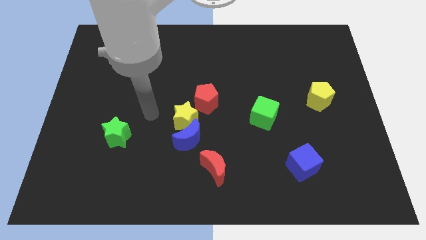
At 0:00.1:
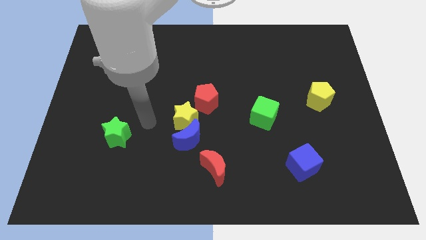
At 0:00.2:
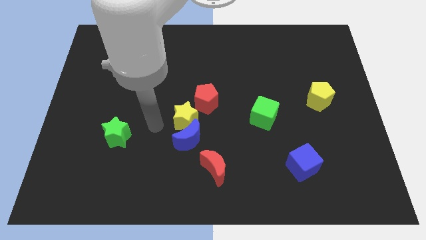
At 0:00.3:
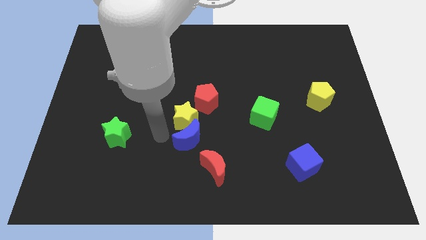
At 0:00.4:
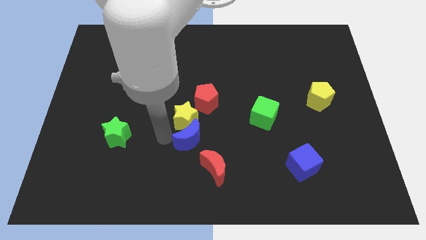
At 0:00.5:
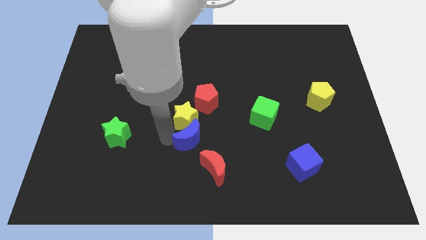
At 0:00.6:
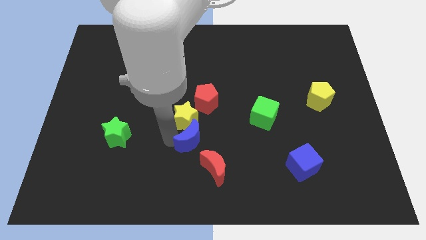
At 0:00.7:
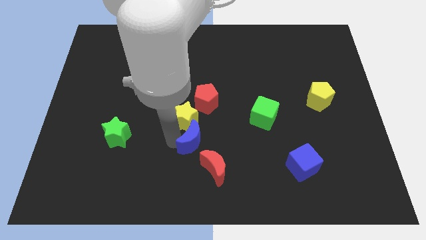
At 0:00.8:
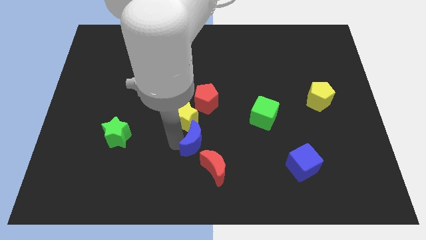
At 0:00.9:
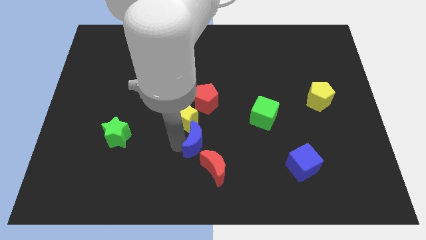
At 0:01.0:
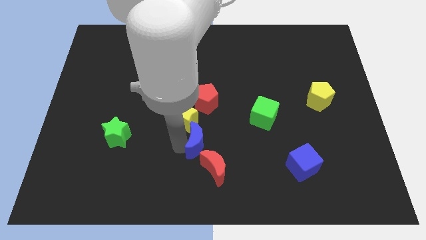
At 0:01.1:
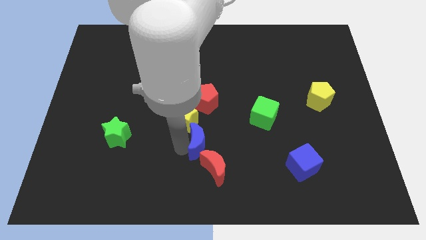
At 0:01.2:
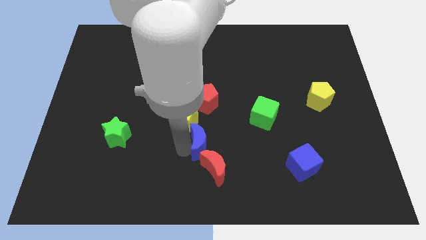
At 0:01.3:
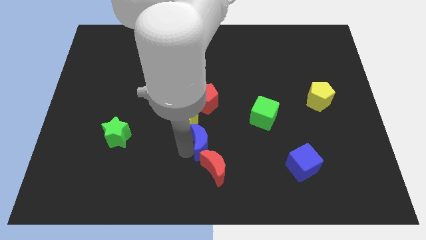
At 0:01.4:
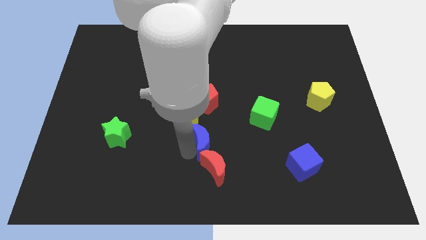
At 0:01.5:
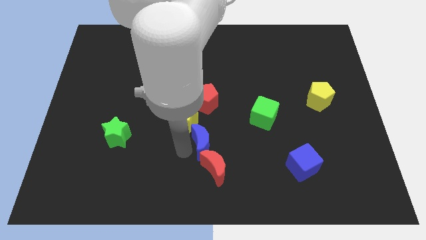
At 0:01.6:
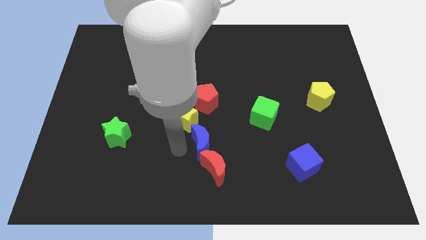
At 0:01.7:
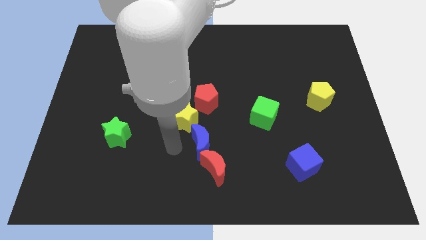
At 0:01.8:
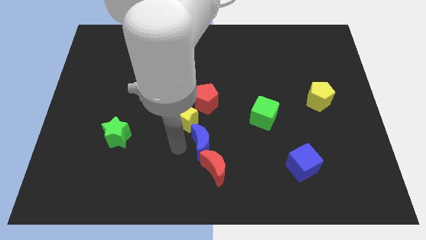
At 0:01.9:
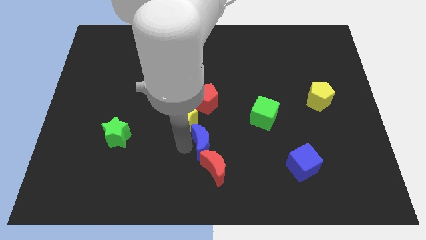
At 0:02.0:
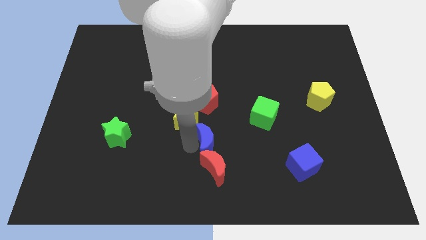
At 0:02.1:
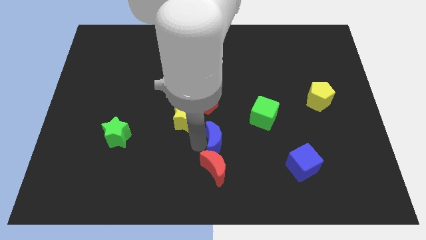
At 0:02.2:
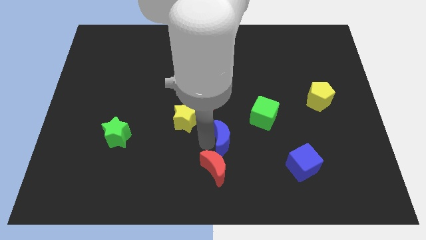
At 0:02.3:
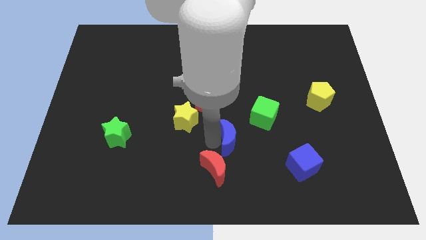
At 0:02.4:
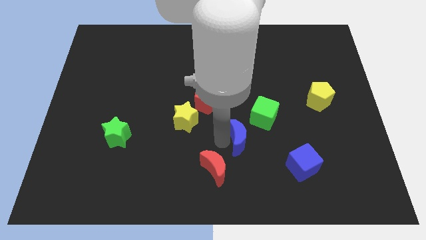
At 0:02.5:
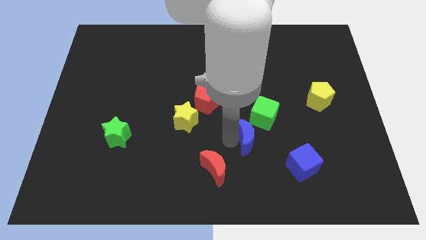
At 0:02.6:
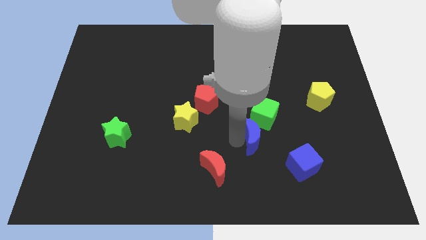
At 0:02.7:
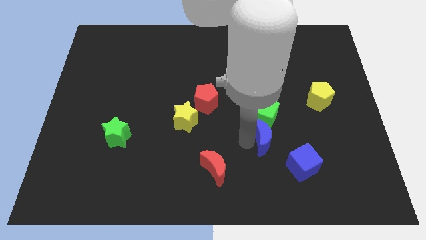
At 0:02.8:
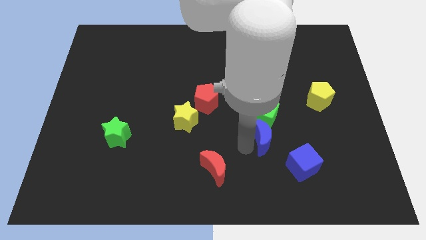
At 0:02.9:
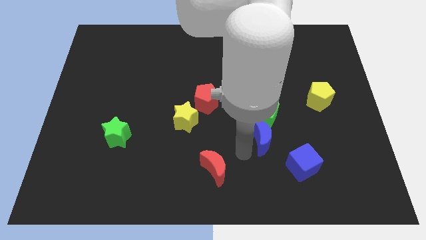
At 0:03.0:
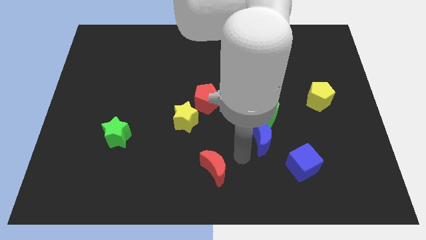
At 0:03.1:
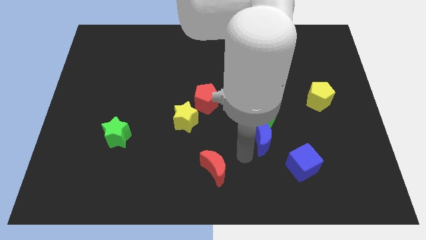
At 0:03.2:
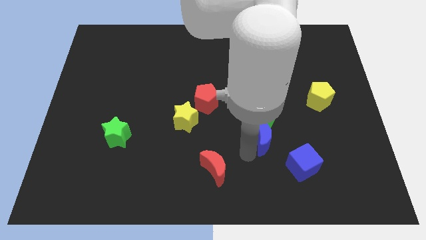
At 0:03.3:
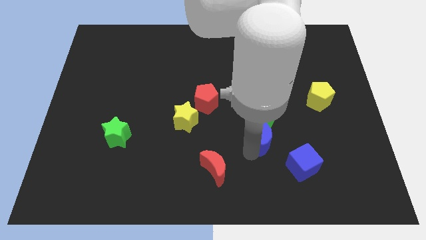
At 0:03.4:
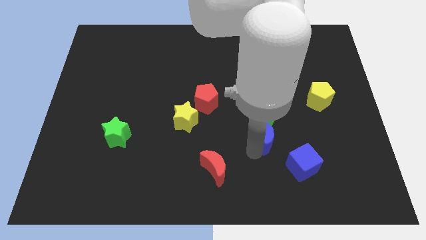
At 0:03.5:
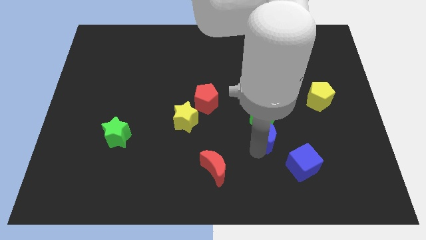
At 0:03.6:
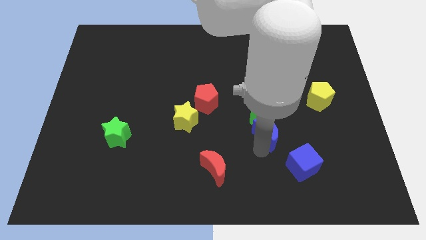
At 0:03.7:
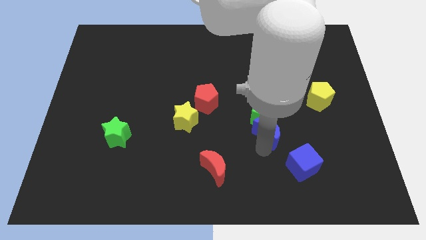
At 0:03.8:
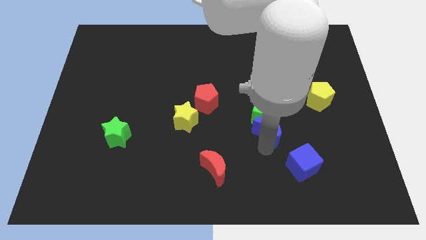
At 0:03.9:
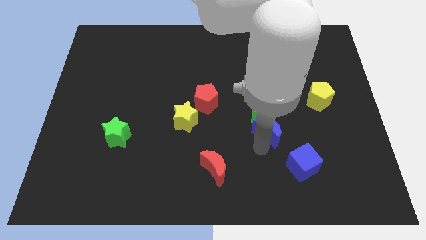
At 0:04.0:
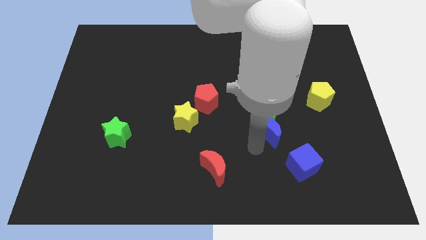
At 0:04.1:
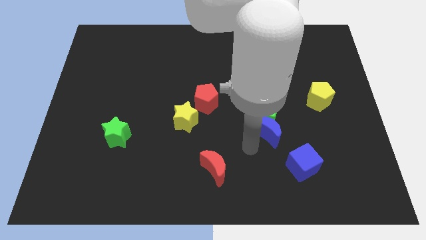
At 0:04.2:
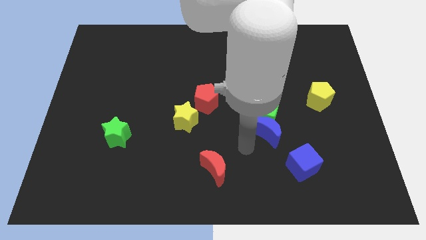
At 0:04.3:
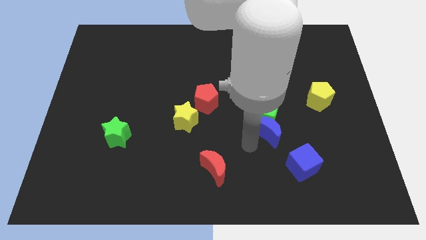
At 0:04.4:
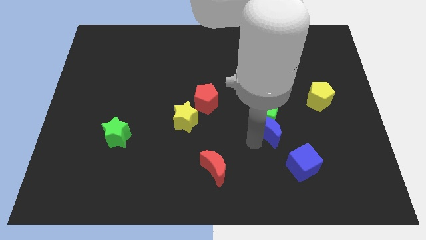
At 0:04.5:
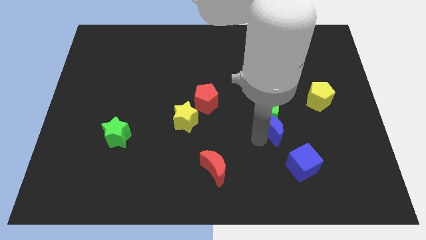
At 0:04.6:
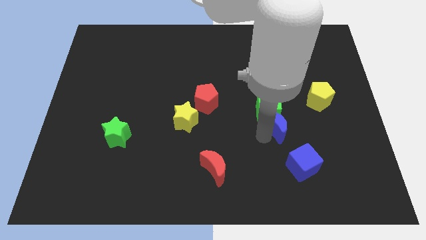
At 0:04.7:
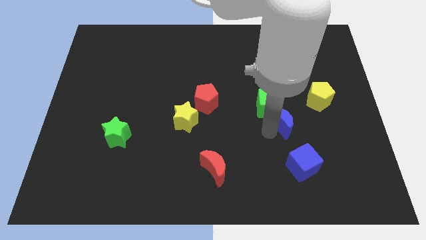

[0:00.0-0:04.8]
move the blue moon to the bottom left of the yellow pentagon

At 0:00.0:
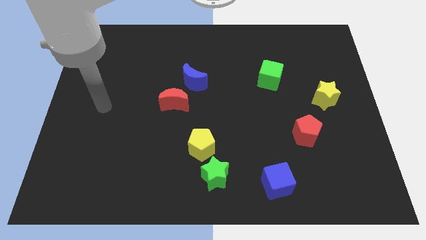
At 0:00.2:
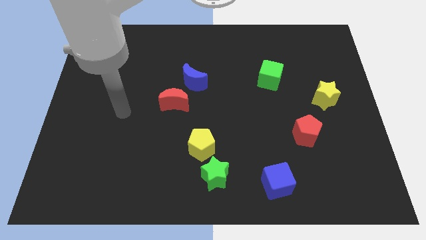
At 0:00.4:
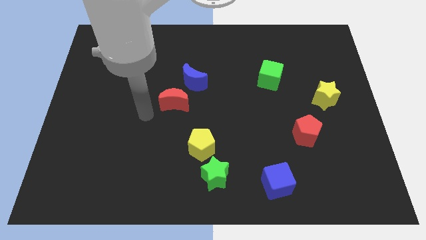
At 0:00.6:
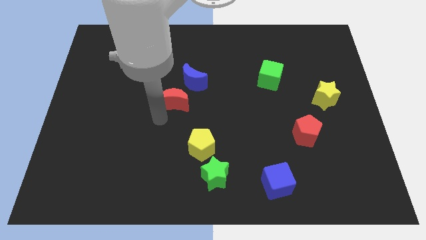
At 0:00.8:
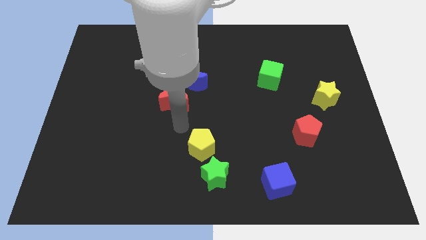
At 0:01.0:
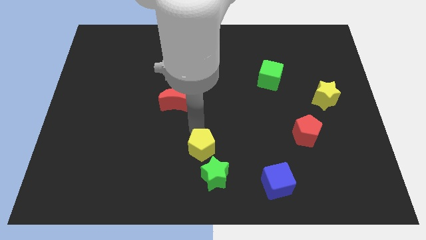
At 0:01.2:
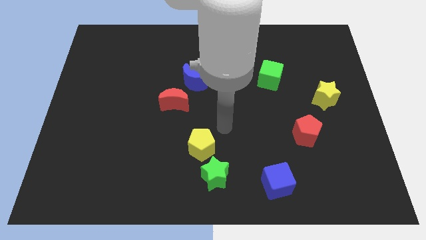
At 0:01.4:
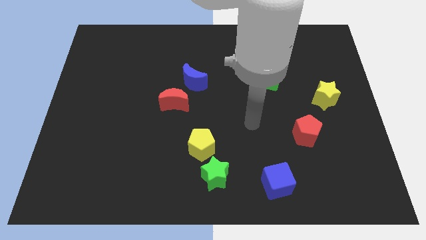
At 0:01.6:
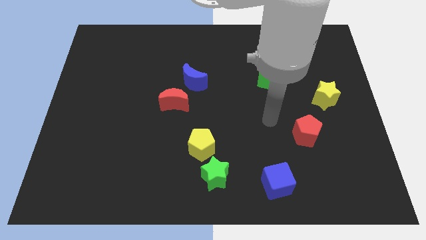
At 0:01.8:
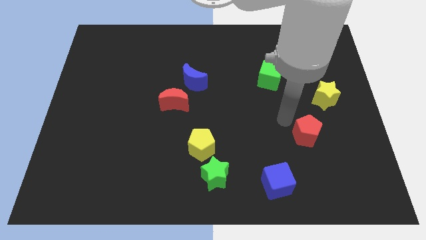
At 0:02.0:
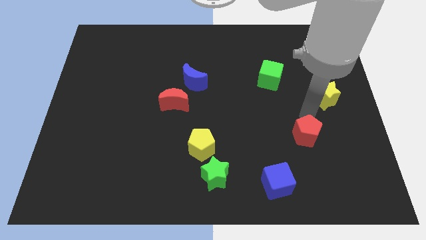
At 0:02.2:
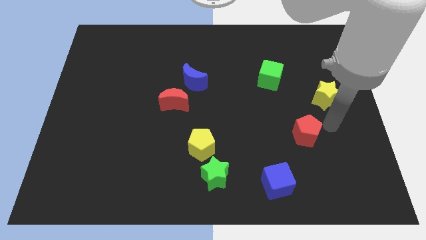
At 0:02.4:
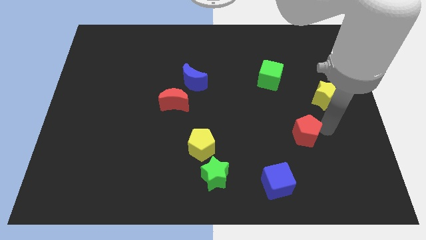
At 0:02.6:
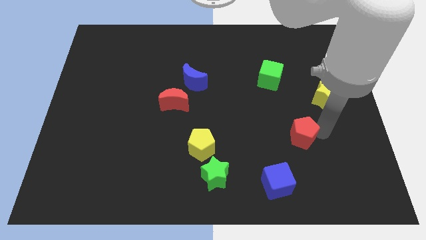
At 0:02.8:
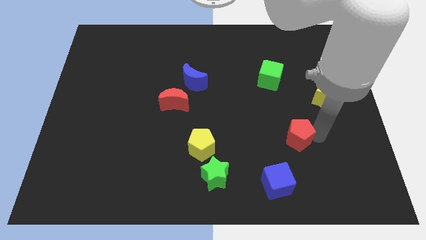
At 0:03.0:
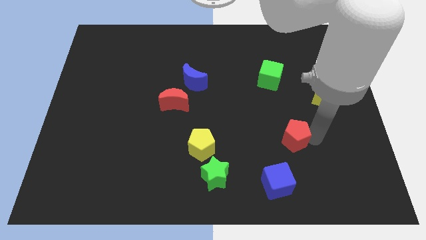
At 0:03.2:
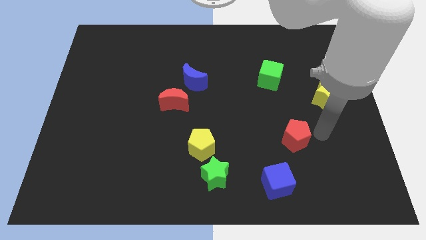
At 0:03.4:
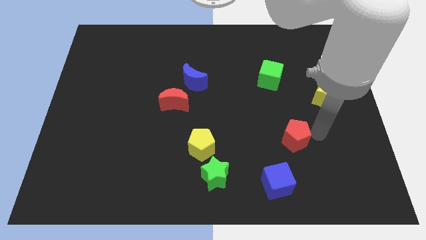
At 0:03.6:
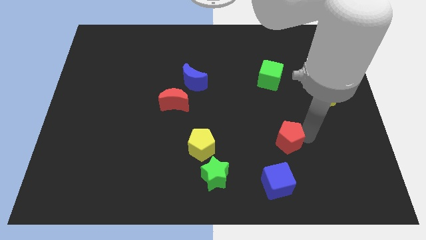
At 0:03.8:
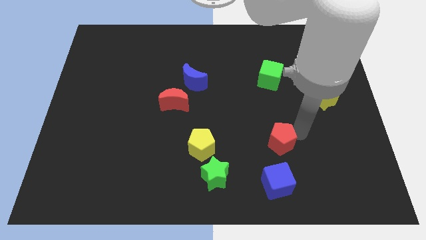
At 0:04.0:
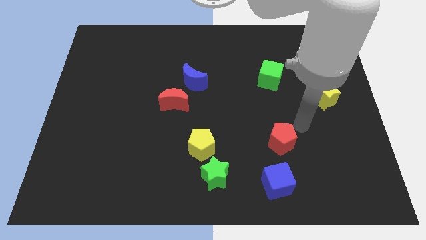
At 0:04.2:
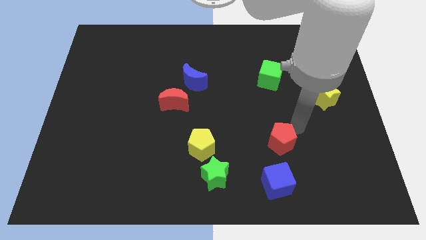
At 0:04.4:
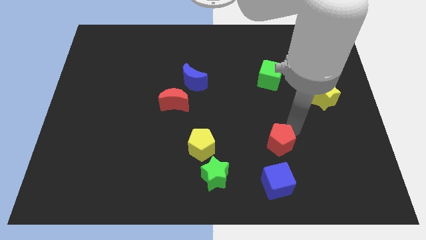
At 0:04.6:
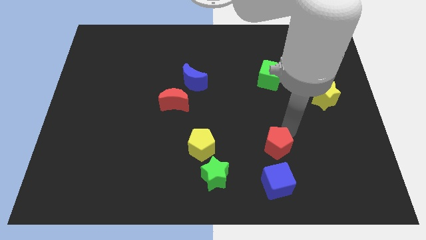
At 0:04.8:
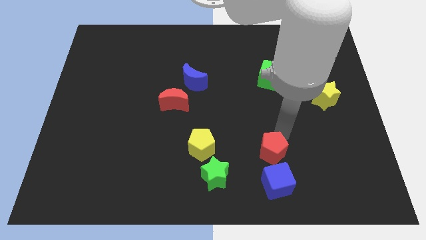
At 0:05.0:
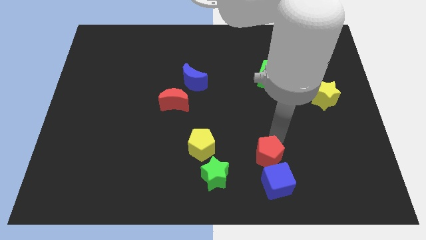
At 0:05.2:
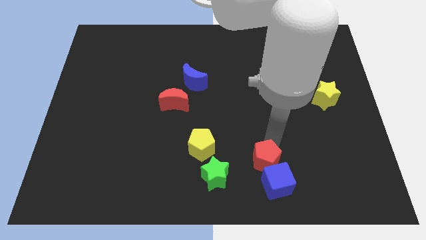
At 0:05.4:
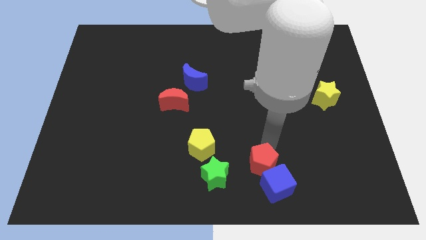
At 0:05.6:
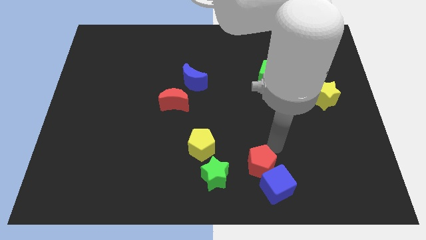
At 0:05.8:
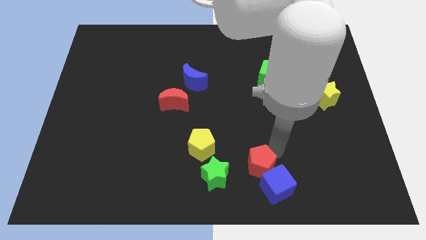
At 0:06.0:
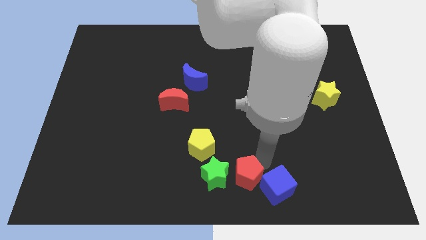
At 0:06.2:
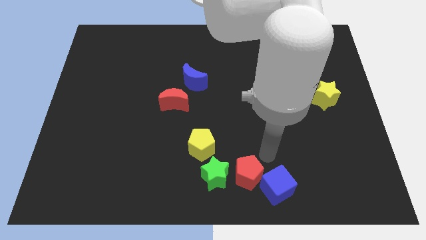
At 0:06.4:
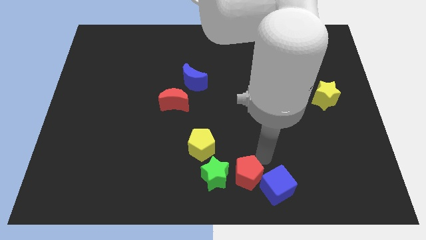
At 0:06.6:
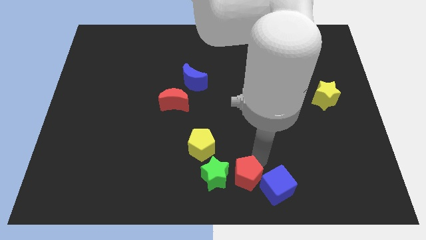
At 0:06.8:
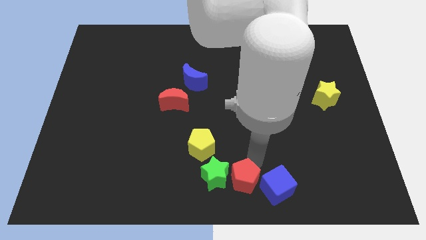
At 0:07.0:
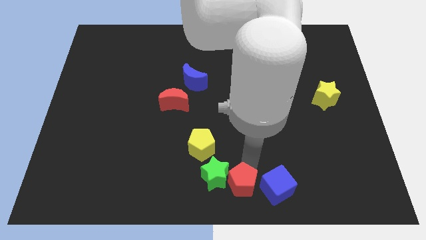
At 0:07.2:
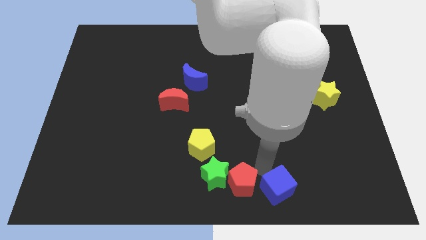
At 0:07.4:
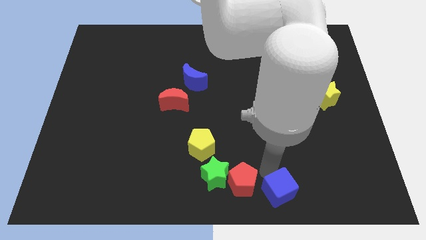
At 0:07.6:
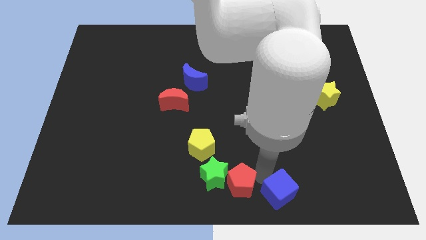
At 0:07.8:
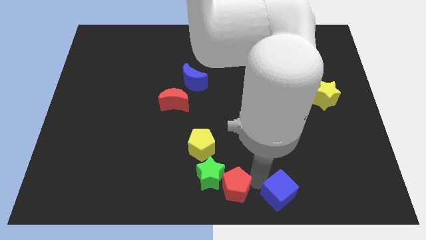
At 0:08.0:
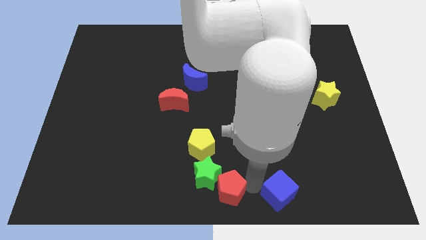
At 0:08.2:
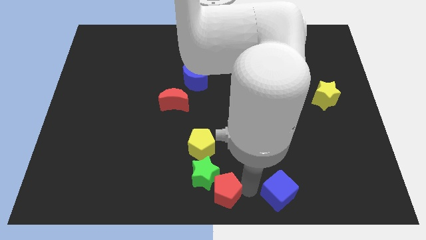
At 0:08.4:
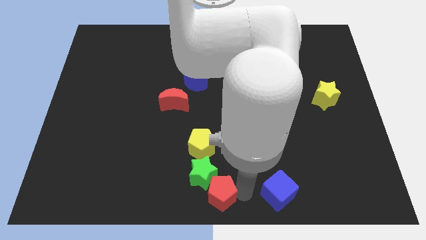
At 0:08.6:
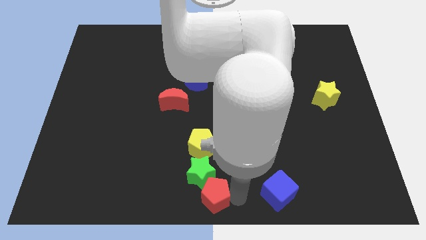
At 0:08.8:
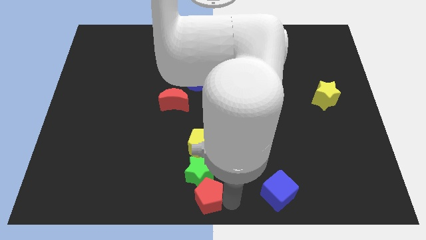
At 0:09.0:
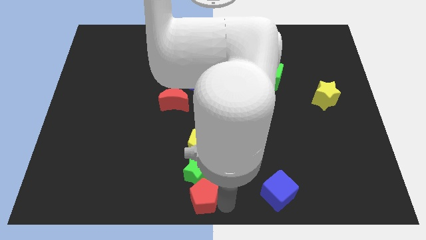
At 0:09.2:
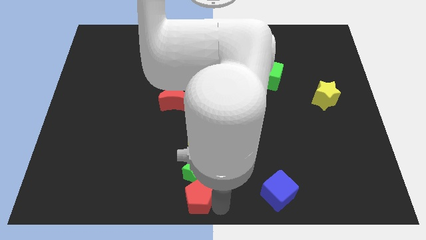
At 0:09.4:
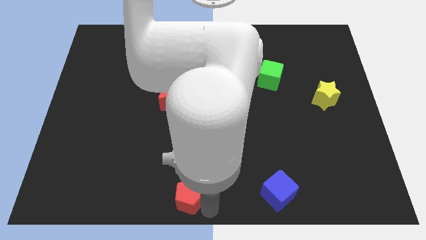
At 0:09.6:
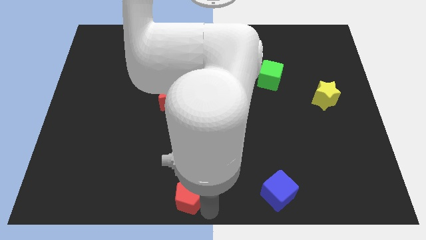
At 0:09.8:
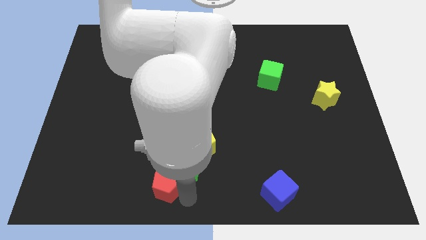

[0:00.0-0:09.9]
put the red pentagon to the left of the green star
